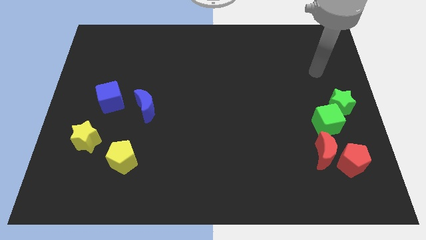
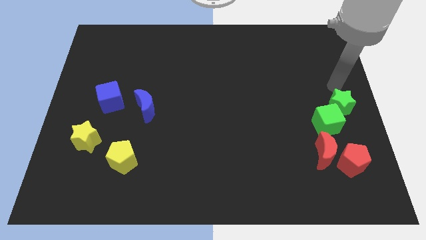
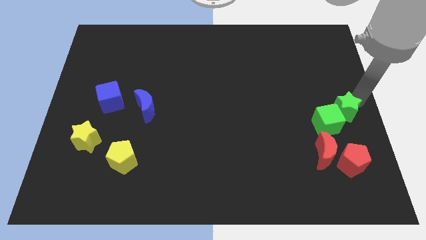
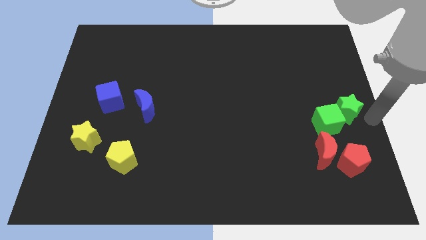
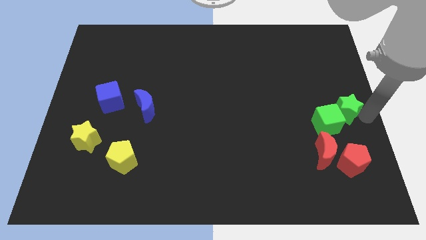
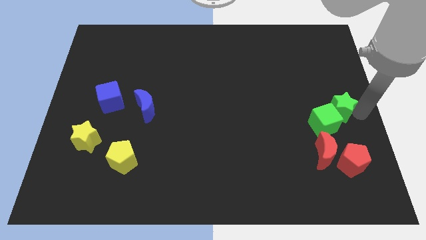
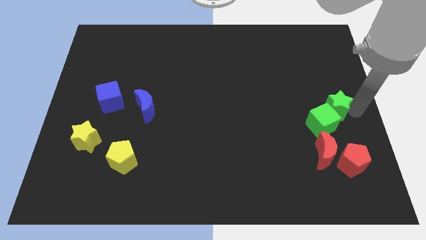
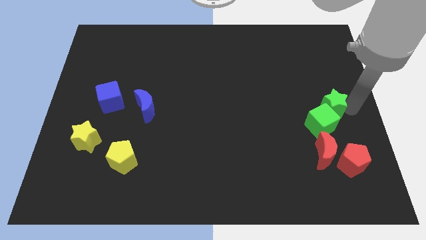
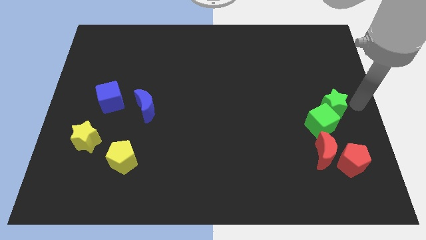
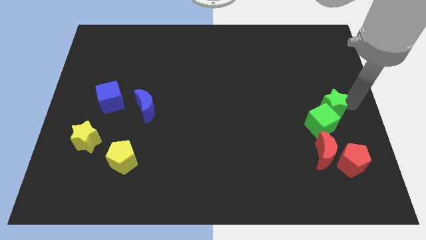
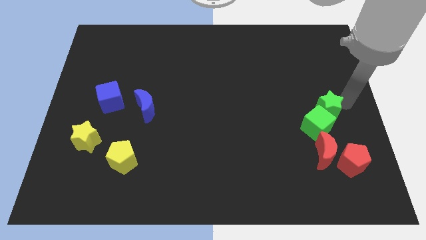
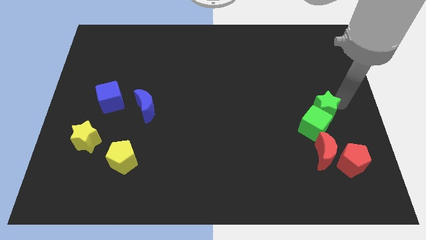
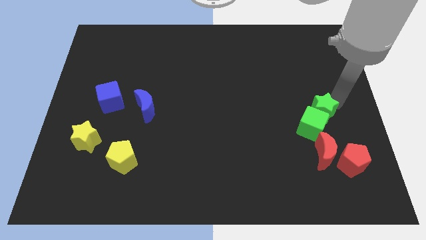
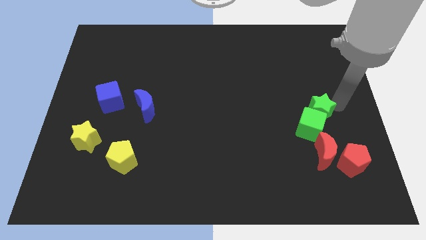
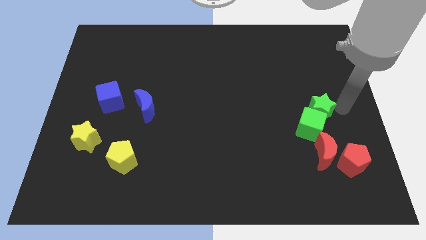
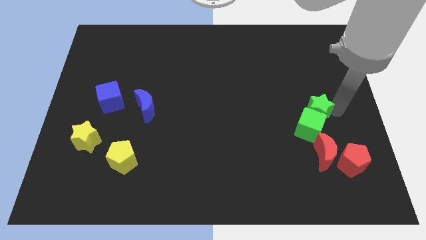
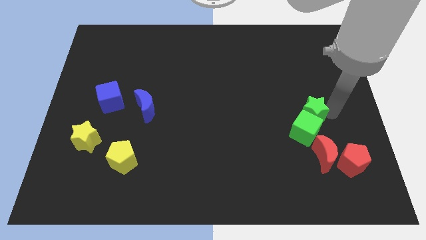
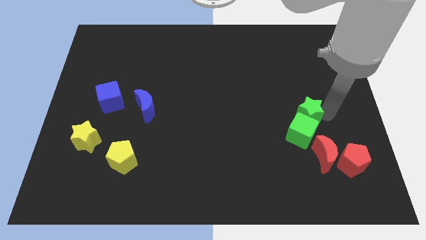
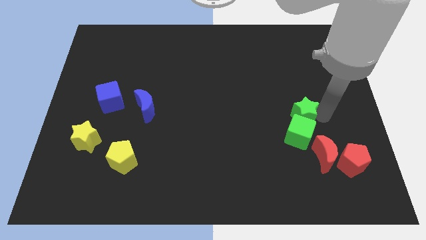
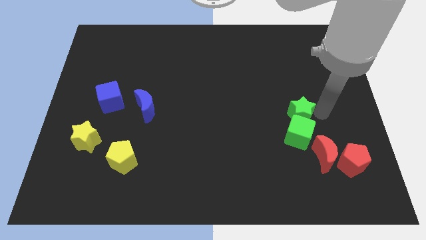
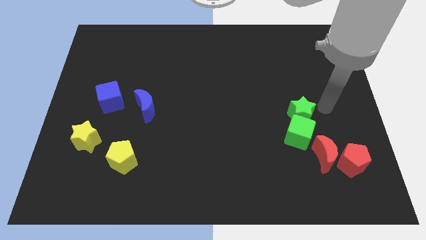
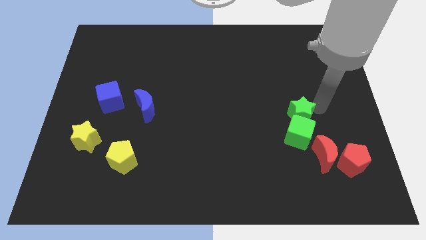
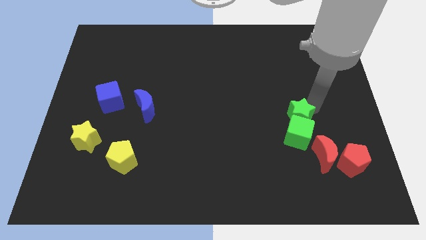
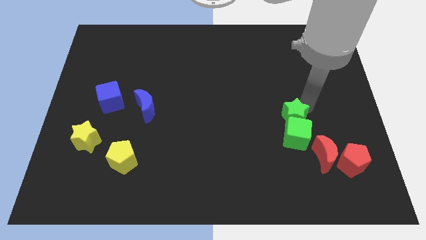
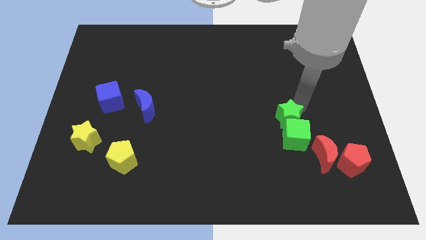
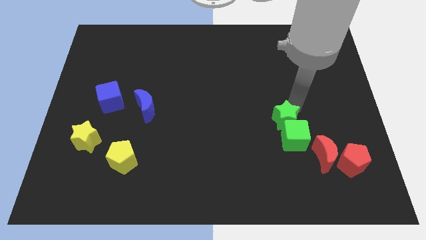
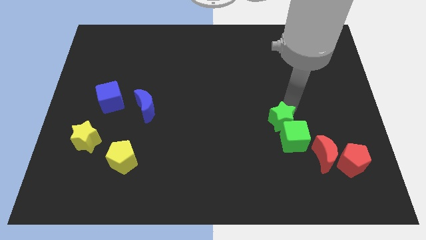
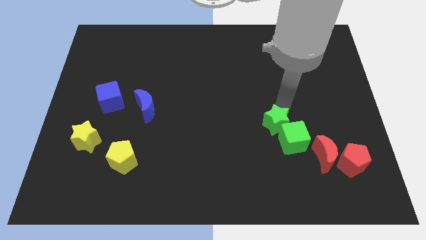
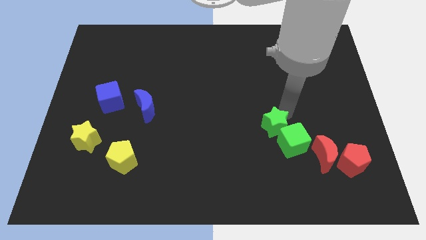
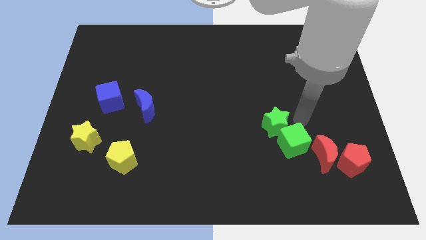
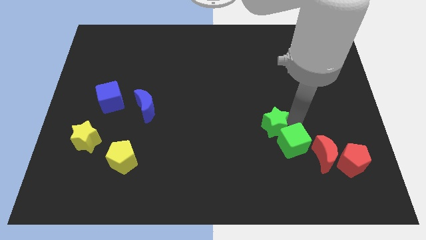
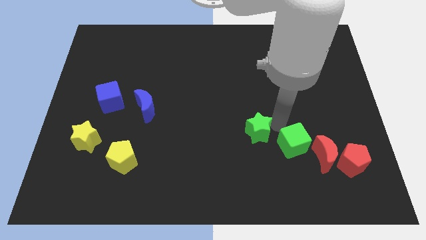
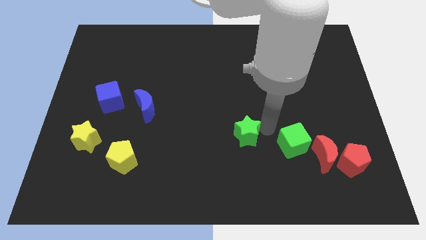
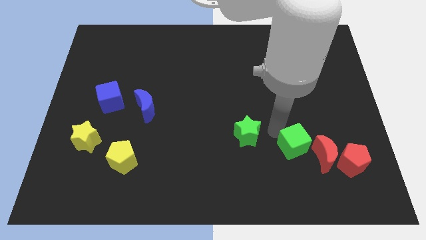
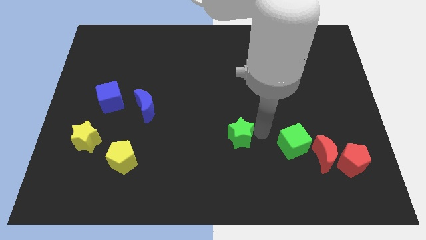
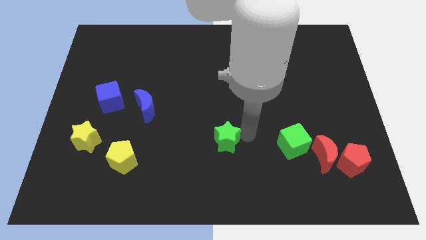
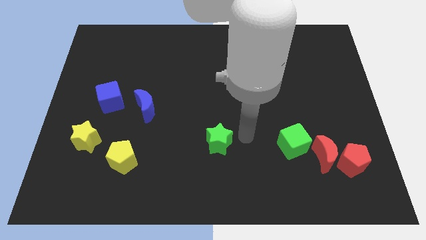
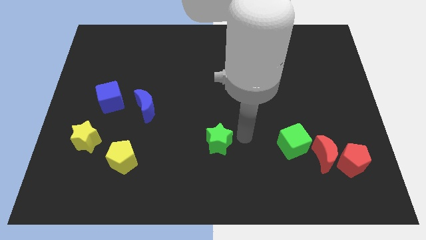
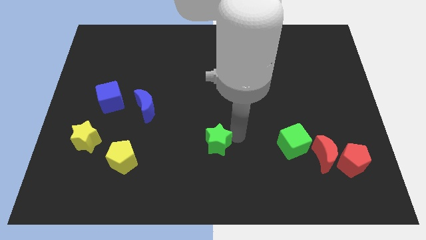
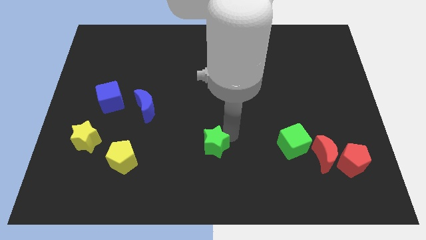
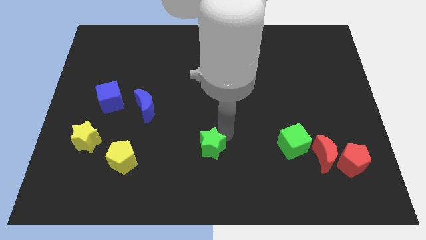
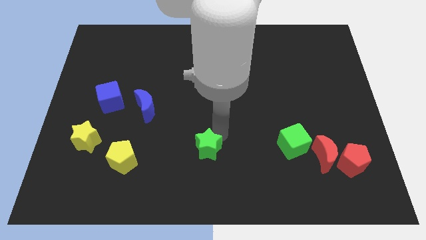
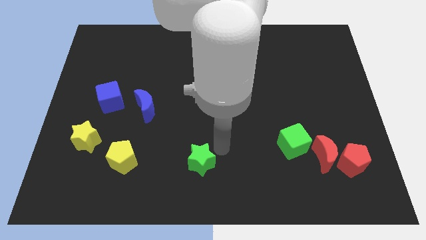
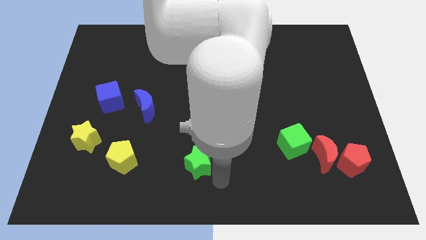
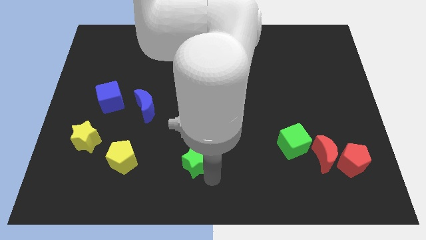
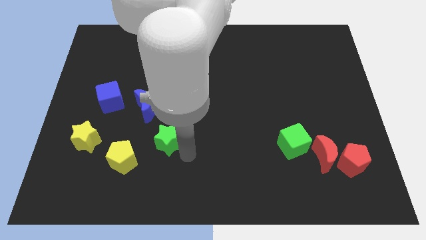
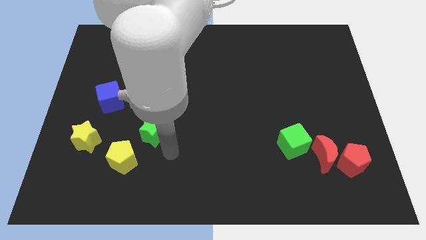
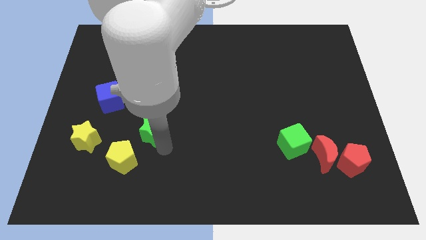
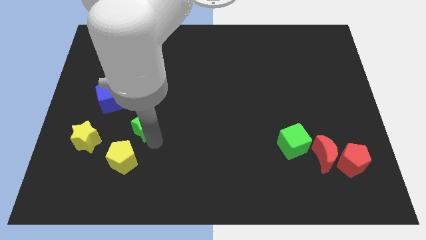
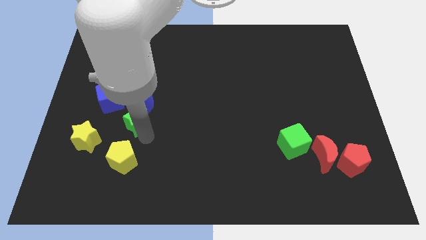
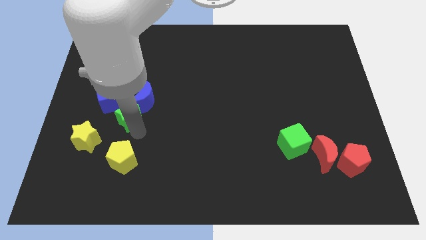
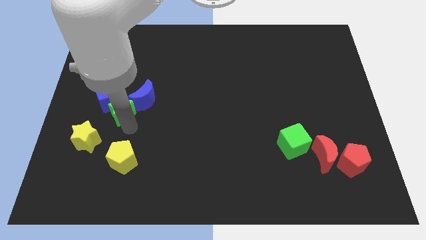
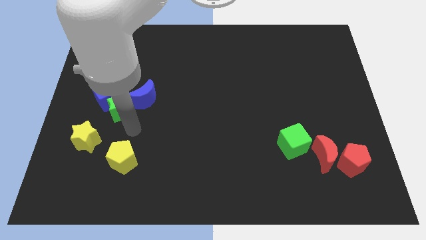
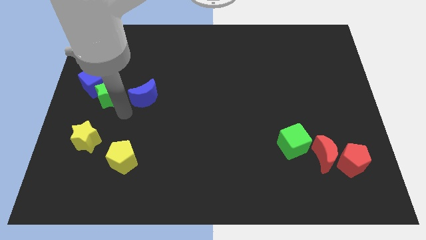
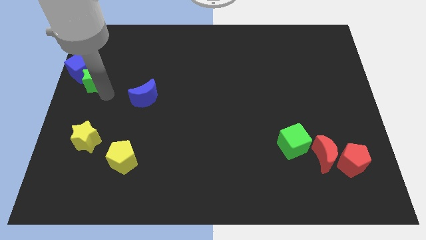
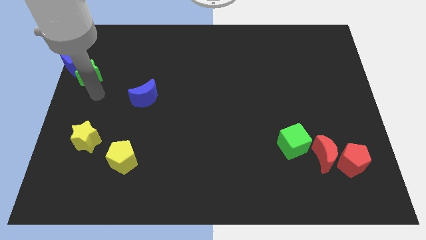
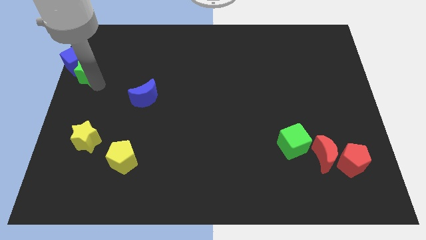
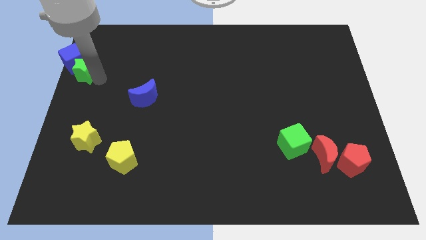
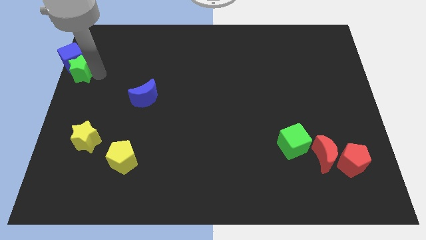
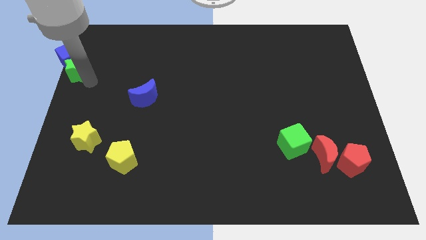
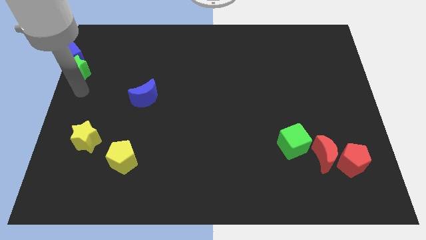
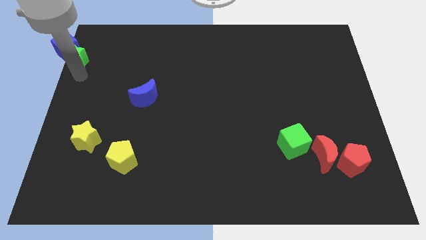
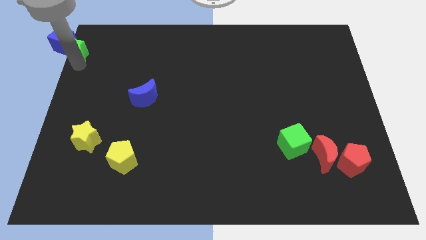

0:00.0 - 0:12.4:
move the green star to the top left of the board

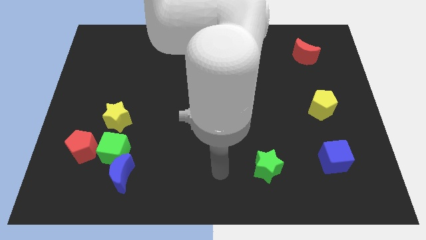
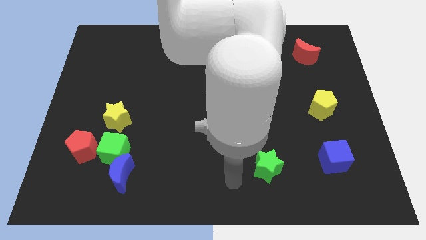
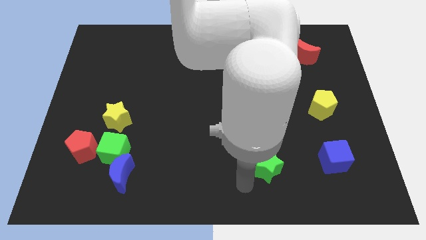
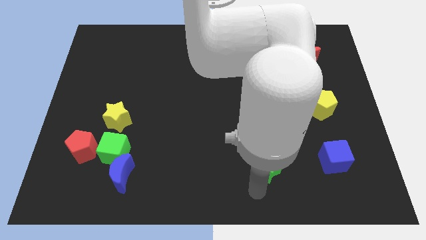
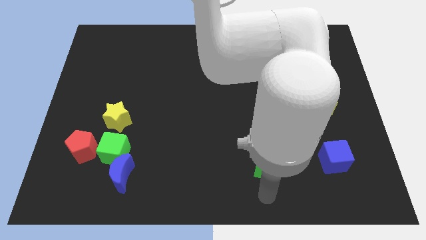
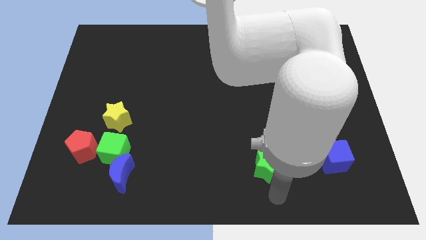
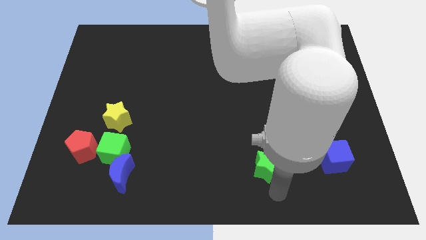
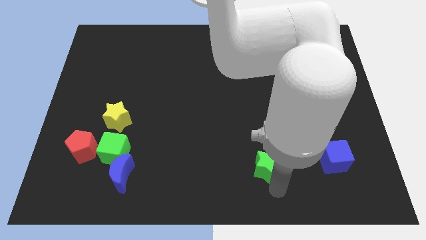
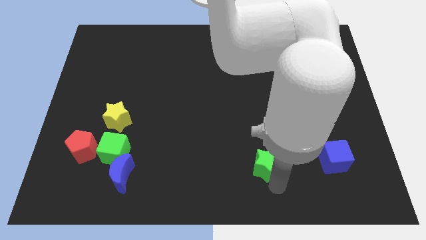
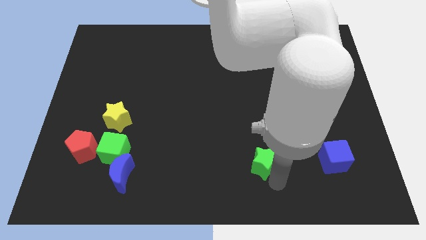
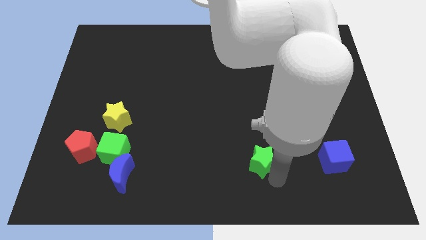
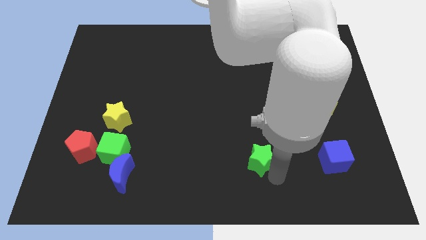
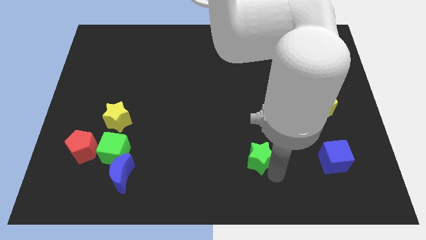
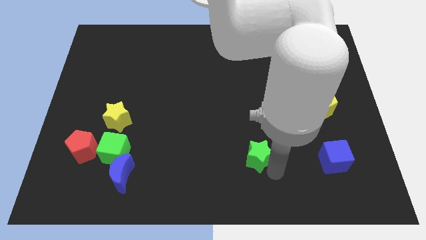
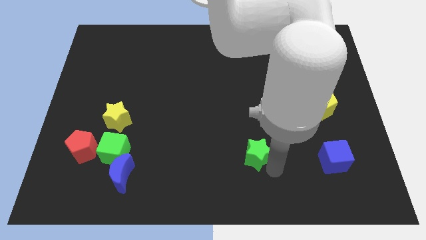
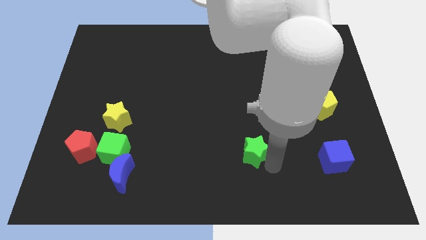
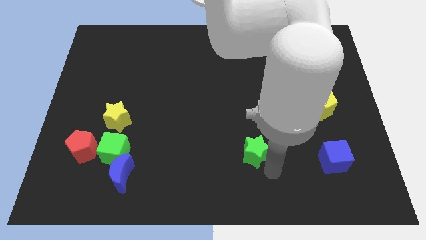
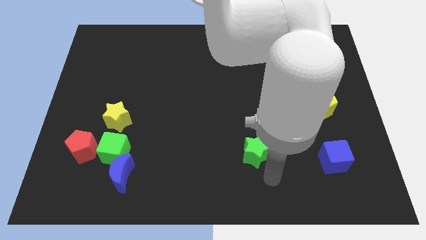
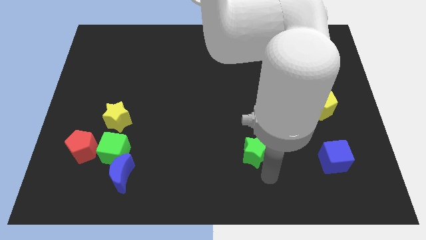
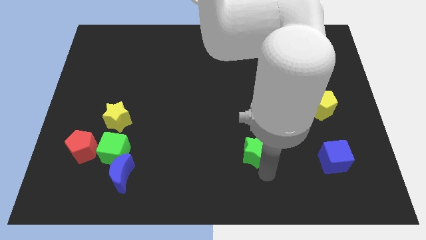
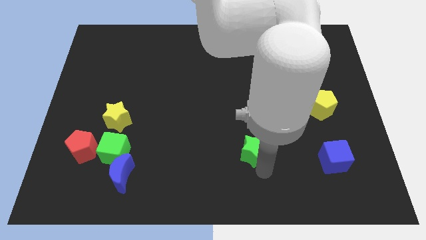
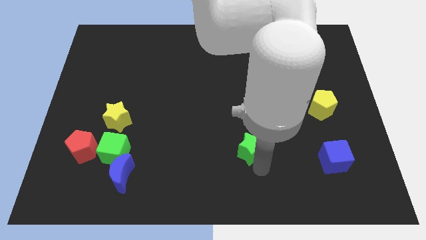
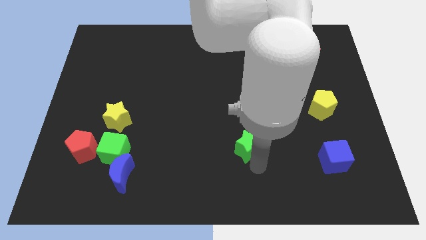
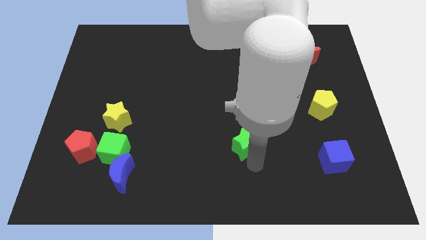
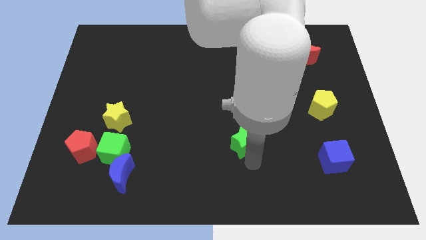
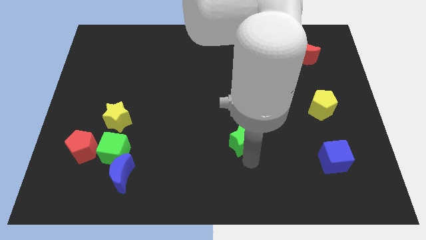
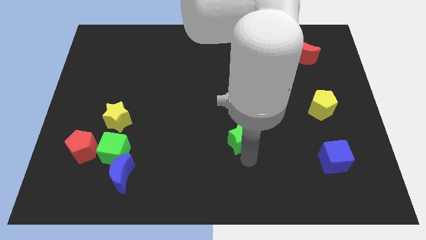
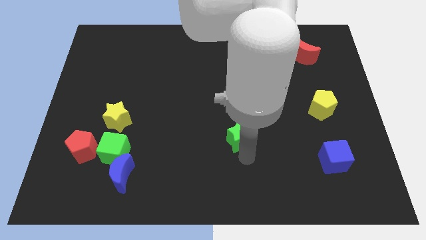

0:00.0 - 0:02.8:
put the green star to the center of the board
